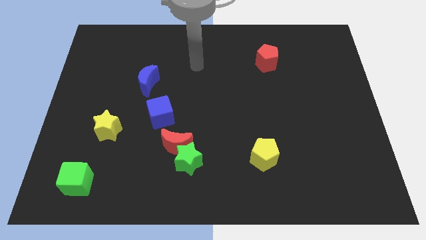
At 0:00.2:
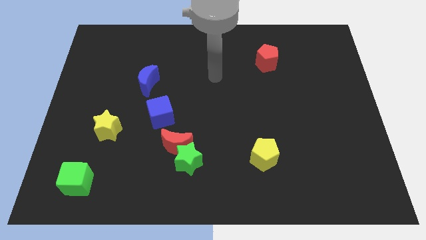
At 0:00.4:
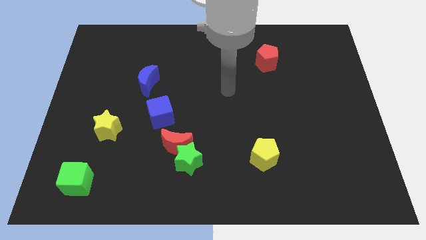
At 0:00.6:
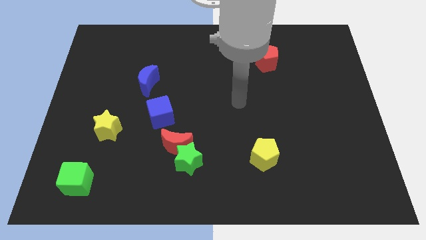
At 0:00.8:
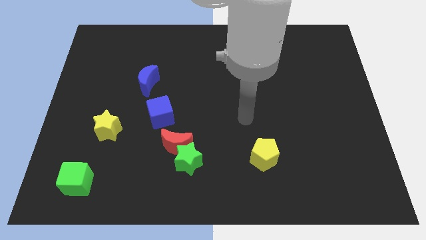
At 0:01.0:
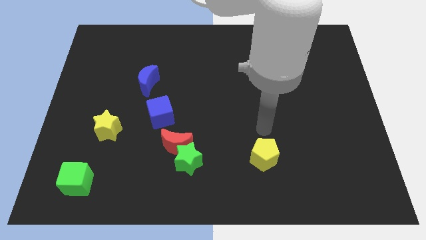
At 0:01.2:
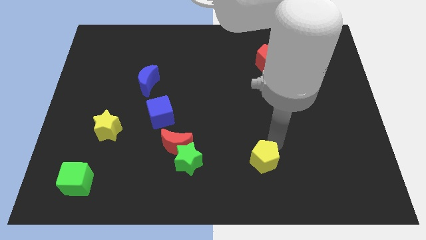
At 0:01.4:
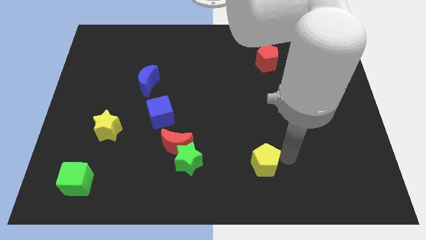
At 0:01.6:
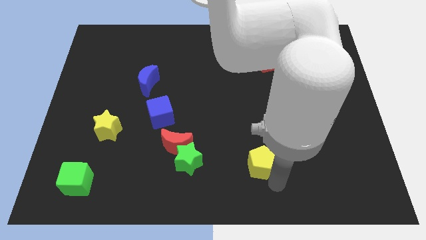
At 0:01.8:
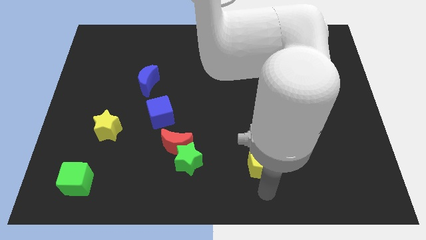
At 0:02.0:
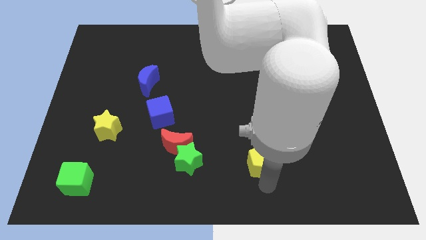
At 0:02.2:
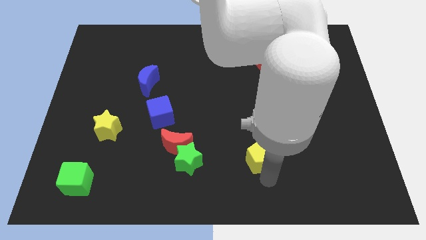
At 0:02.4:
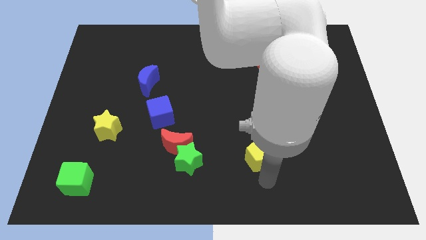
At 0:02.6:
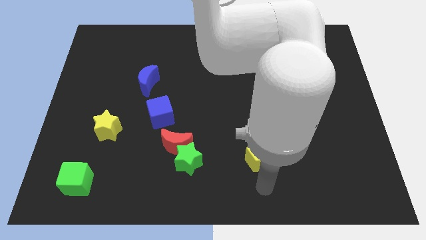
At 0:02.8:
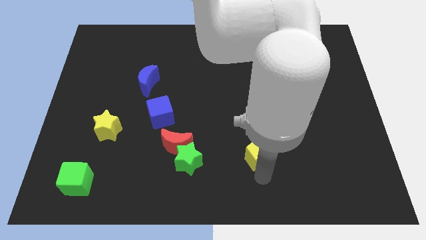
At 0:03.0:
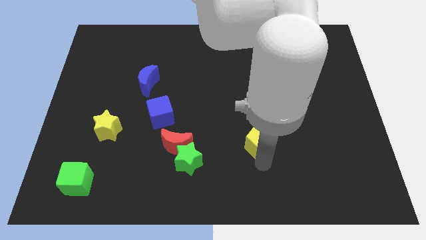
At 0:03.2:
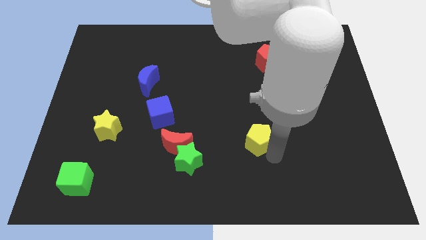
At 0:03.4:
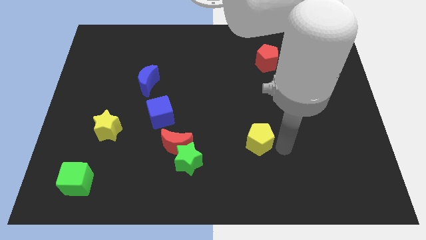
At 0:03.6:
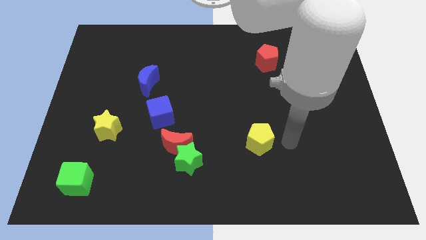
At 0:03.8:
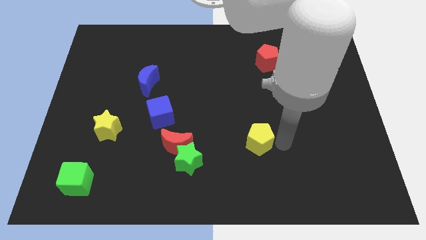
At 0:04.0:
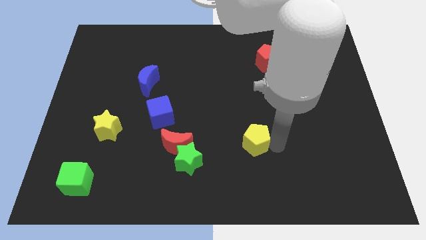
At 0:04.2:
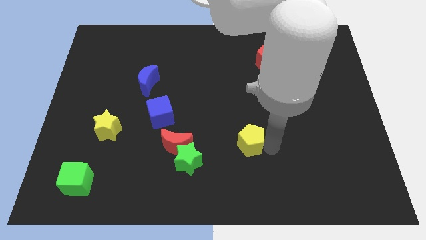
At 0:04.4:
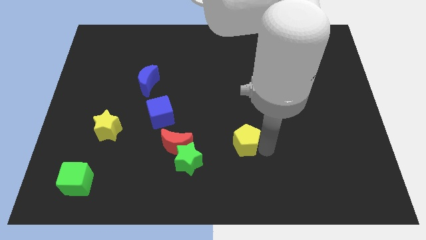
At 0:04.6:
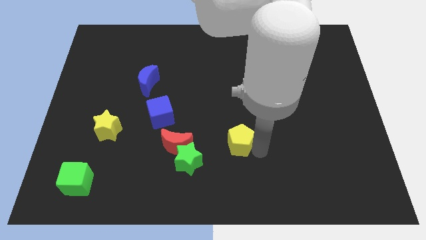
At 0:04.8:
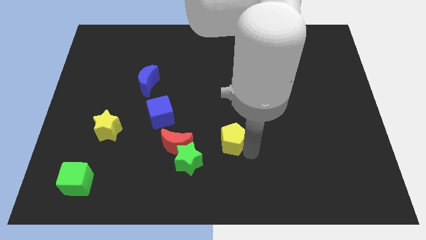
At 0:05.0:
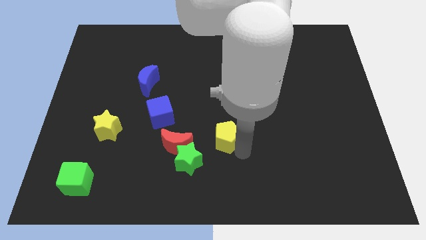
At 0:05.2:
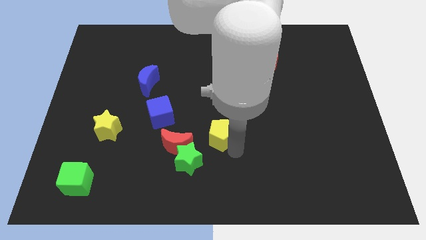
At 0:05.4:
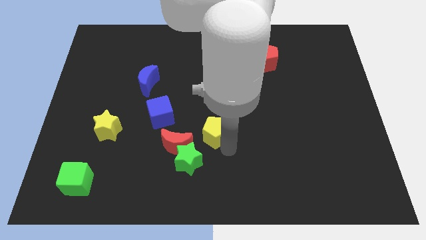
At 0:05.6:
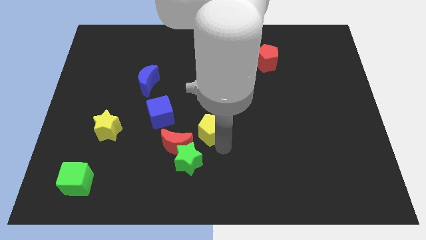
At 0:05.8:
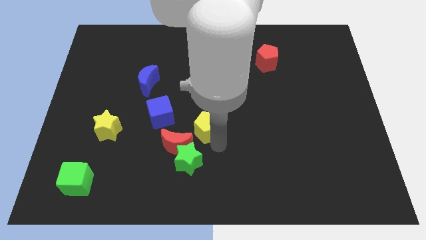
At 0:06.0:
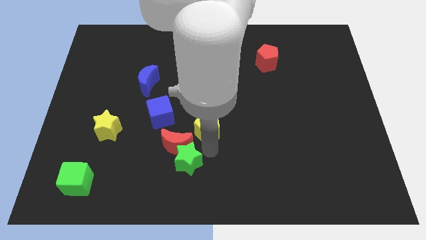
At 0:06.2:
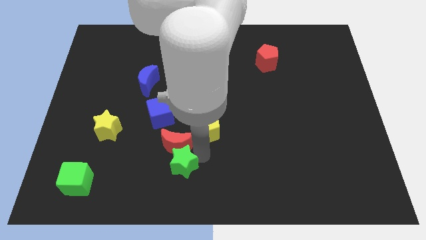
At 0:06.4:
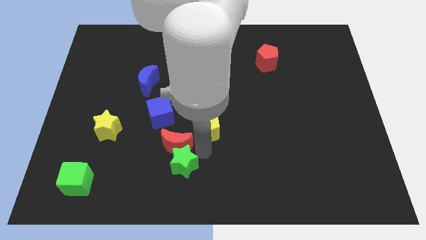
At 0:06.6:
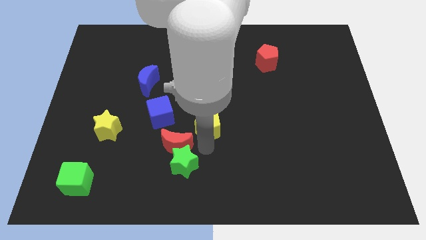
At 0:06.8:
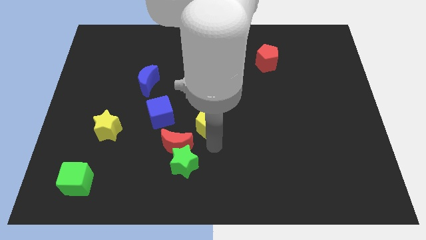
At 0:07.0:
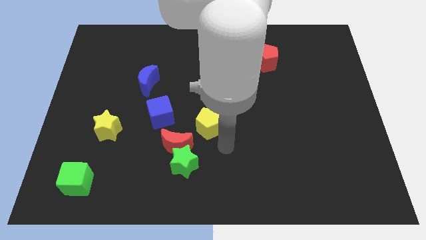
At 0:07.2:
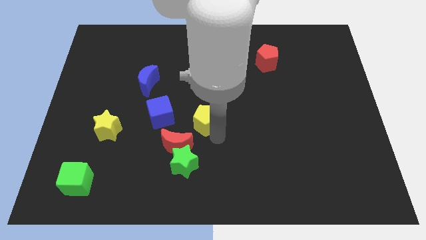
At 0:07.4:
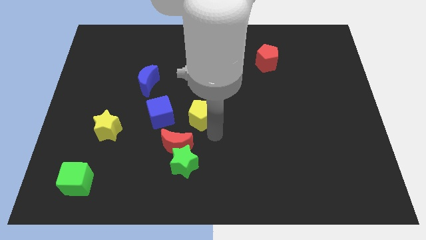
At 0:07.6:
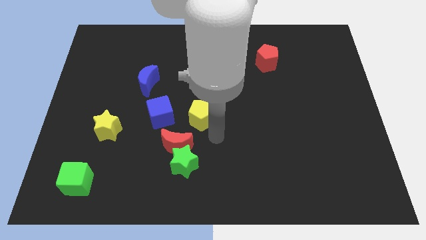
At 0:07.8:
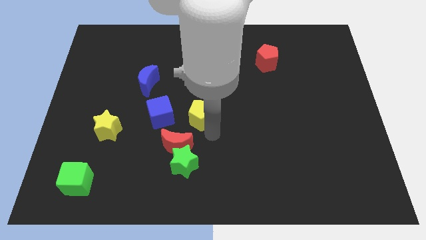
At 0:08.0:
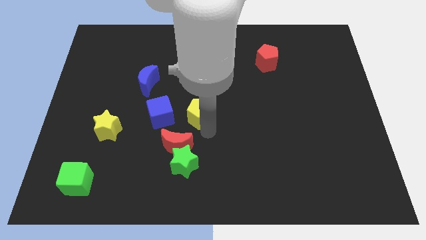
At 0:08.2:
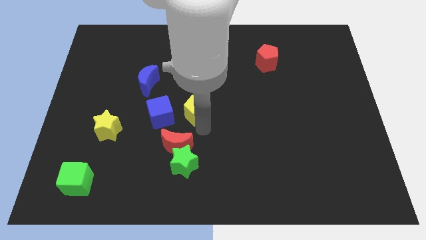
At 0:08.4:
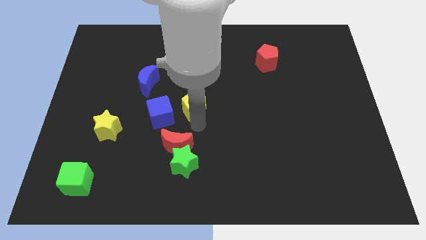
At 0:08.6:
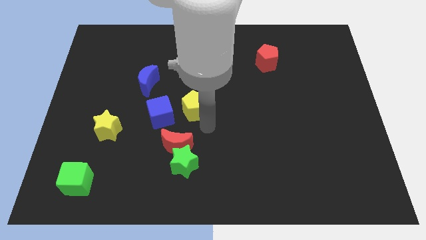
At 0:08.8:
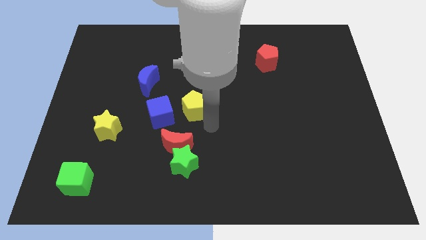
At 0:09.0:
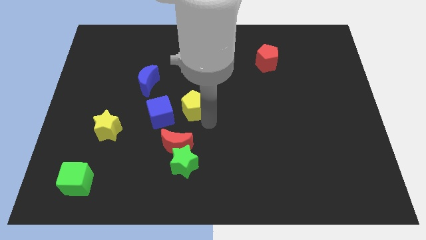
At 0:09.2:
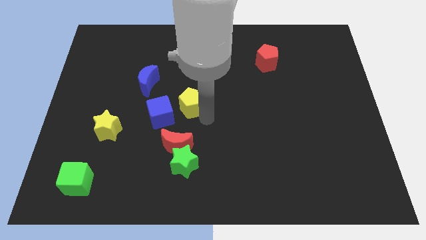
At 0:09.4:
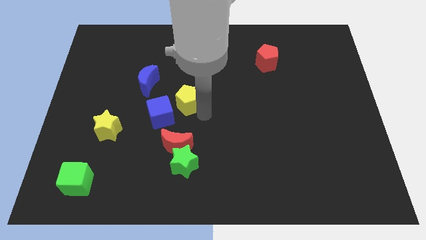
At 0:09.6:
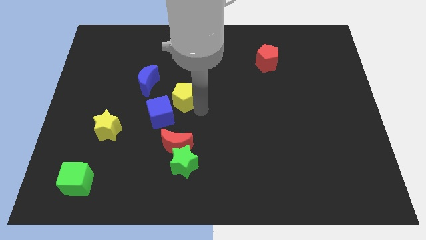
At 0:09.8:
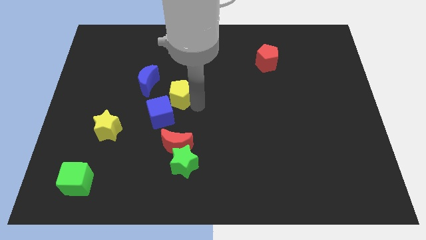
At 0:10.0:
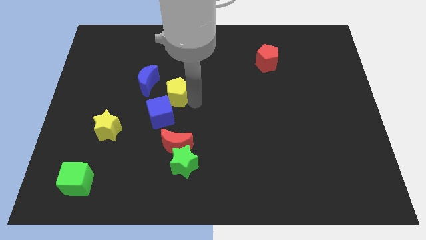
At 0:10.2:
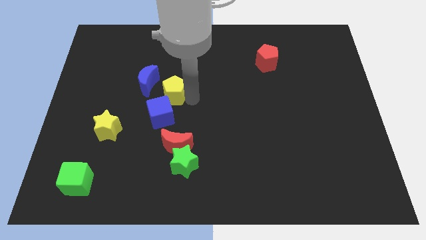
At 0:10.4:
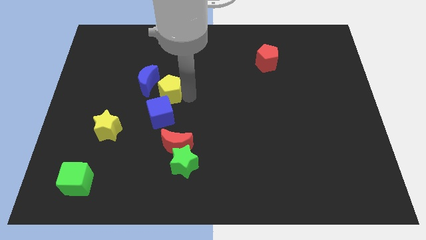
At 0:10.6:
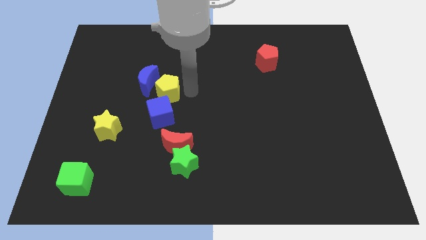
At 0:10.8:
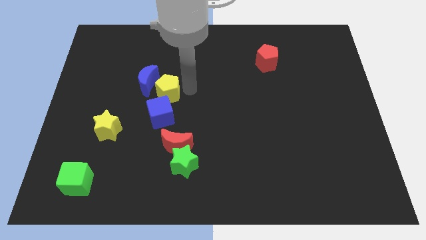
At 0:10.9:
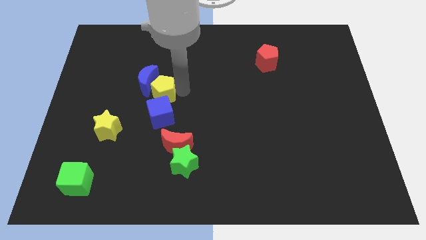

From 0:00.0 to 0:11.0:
move the yellow pentagon to the top left of the blue cube
